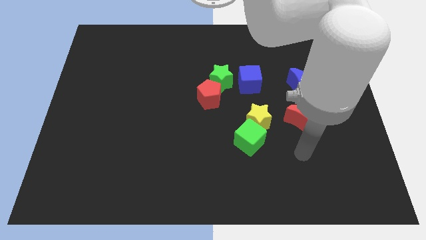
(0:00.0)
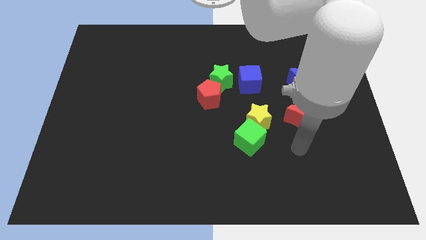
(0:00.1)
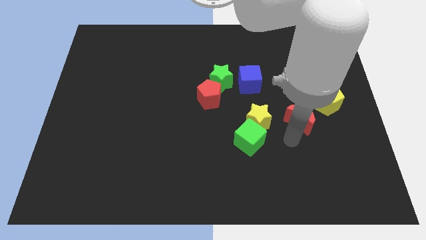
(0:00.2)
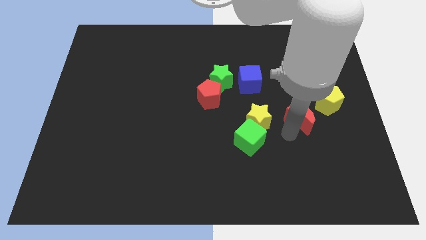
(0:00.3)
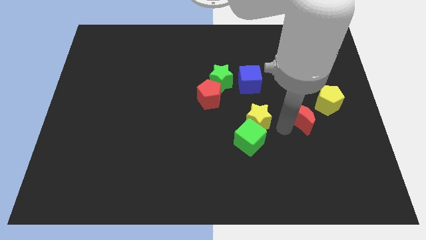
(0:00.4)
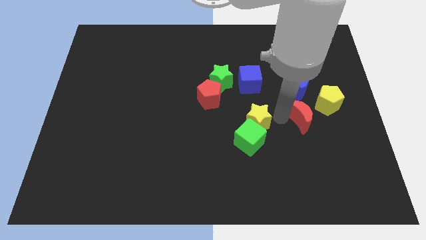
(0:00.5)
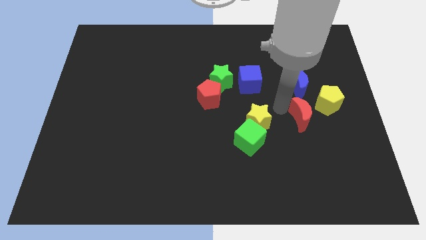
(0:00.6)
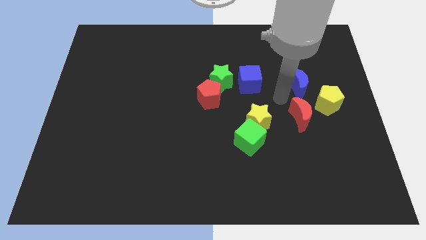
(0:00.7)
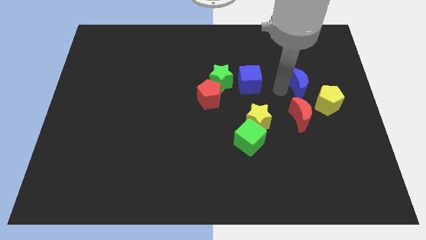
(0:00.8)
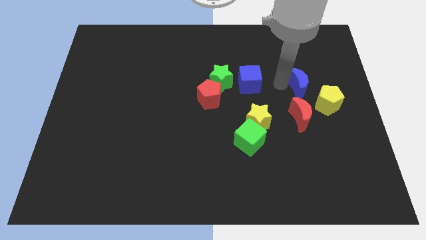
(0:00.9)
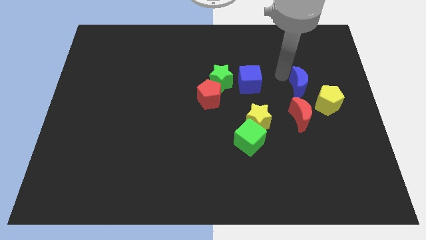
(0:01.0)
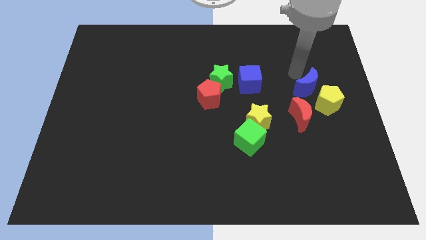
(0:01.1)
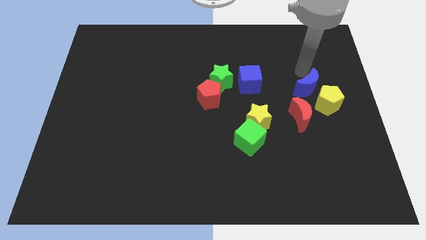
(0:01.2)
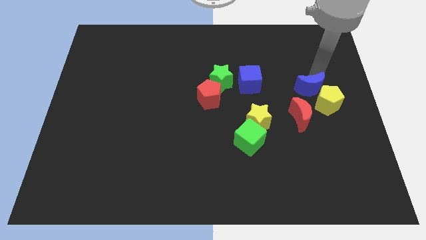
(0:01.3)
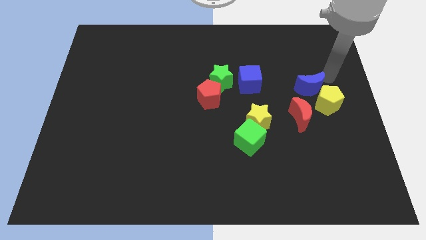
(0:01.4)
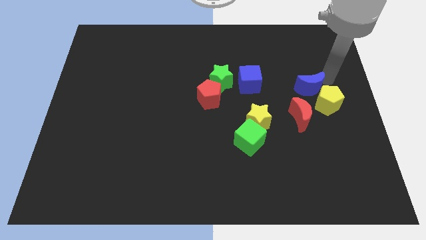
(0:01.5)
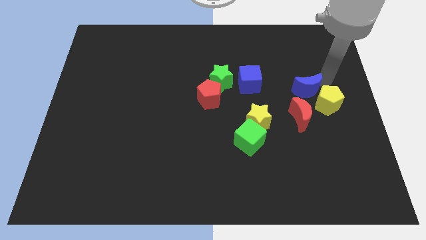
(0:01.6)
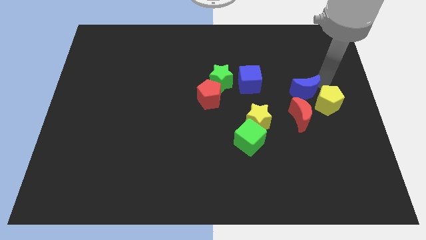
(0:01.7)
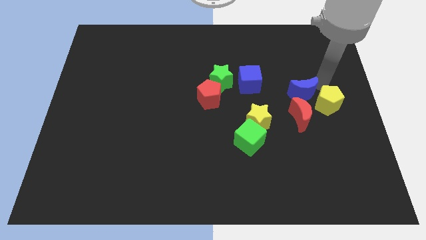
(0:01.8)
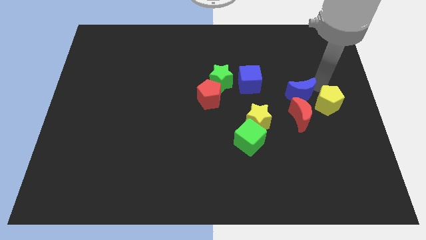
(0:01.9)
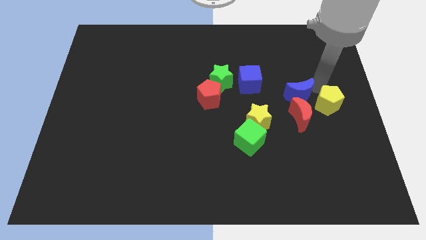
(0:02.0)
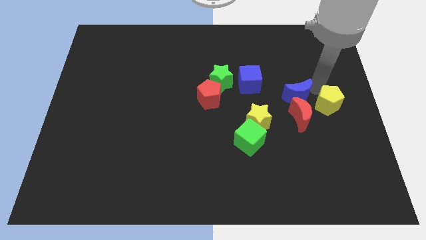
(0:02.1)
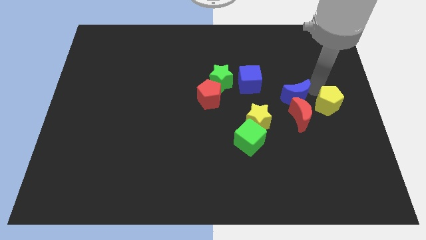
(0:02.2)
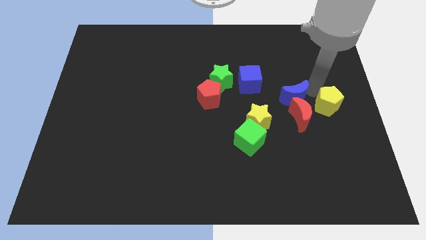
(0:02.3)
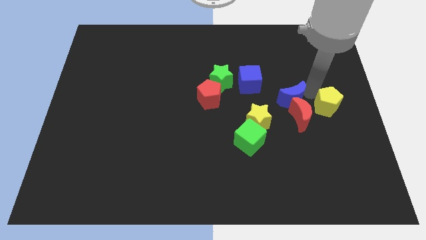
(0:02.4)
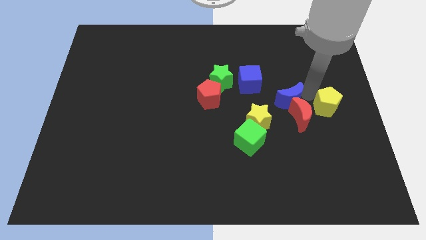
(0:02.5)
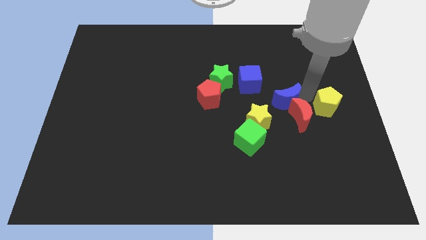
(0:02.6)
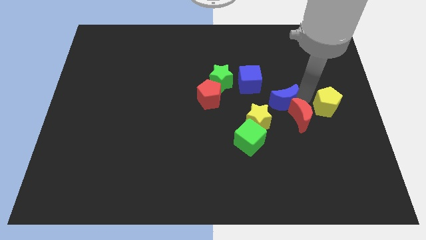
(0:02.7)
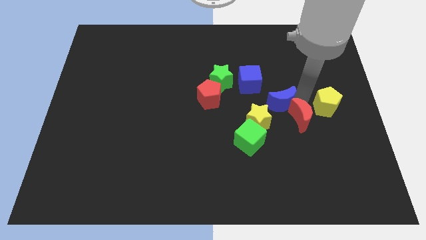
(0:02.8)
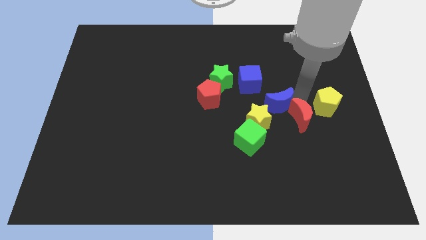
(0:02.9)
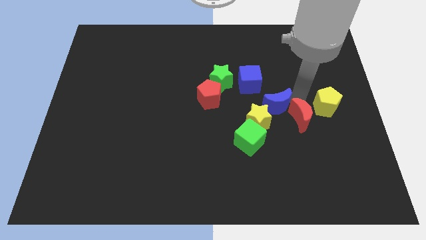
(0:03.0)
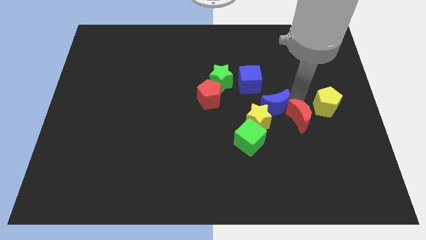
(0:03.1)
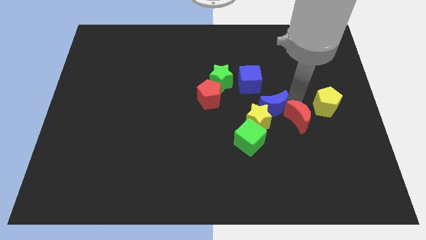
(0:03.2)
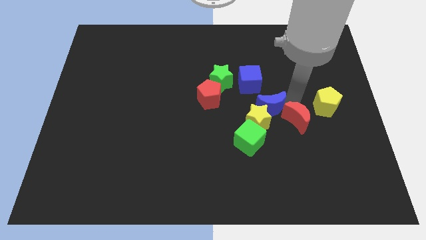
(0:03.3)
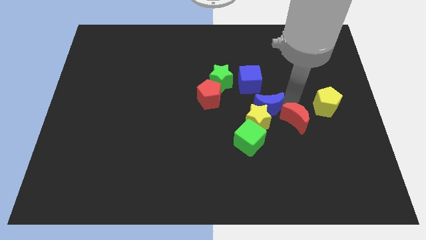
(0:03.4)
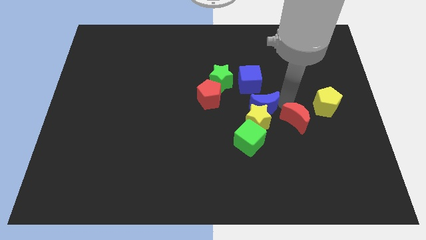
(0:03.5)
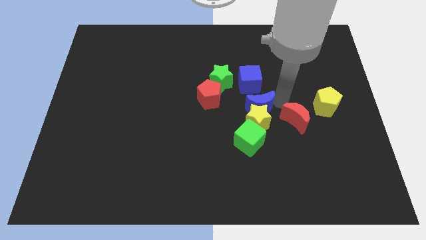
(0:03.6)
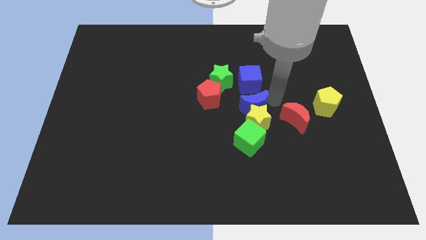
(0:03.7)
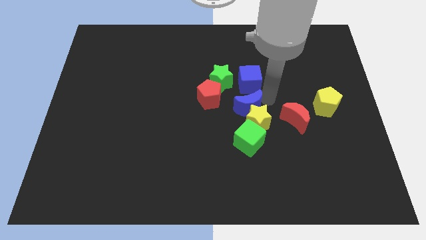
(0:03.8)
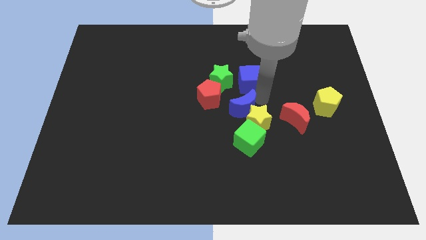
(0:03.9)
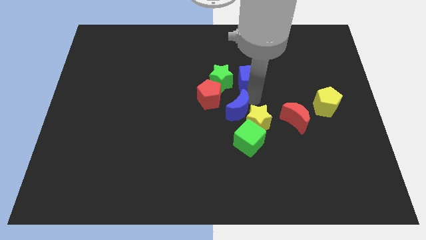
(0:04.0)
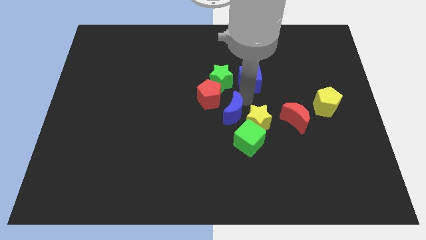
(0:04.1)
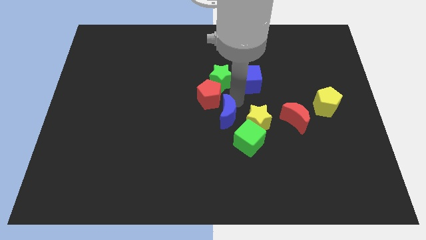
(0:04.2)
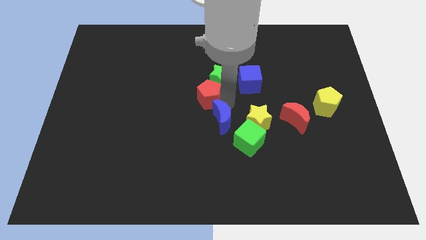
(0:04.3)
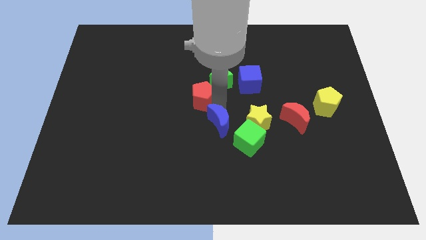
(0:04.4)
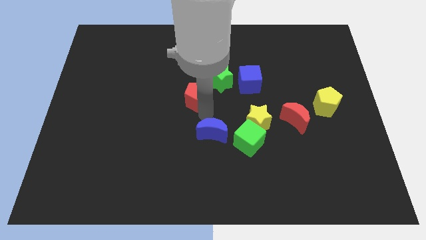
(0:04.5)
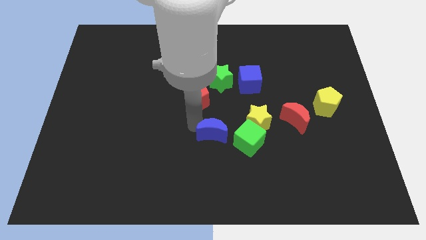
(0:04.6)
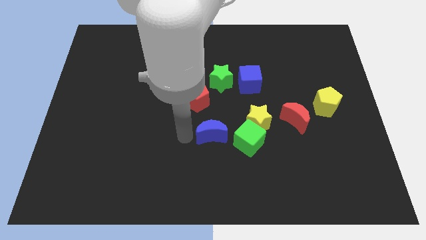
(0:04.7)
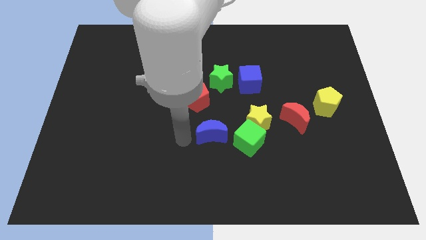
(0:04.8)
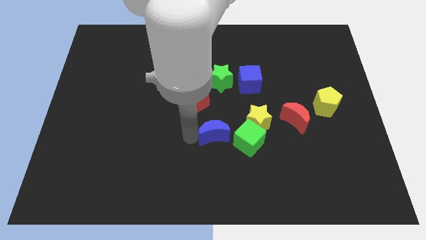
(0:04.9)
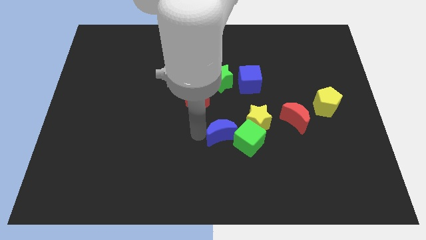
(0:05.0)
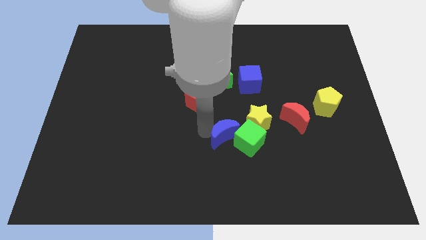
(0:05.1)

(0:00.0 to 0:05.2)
move the blue moon next to the green cube

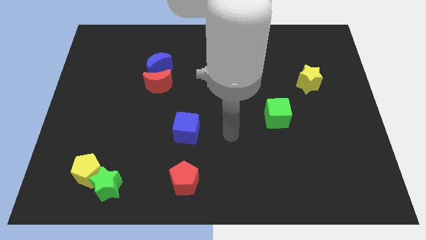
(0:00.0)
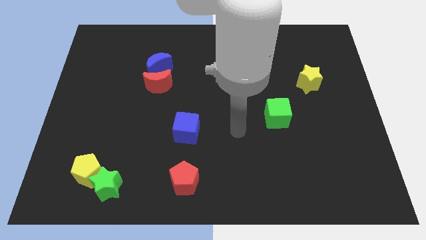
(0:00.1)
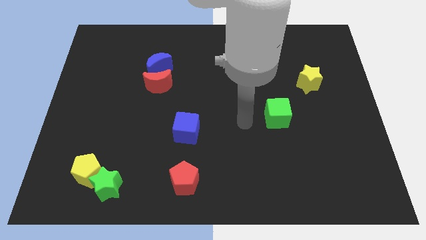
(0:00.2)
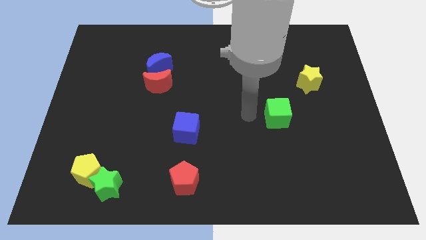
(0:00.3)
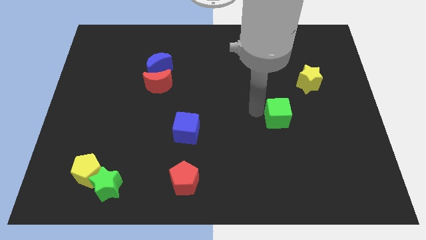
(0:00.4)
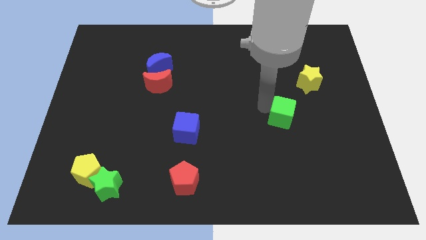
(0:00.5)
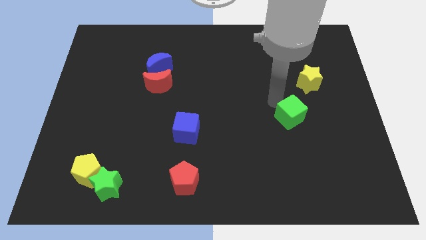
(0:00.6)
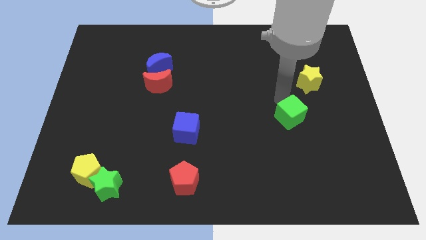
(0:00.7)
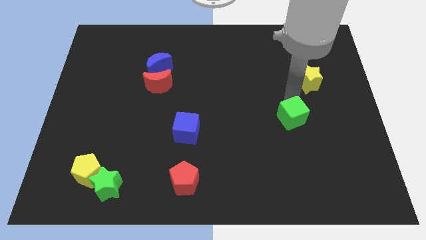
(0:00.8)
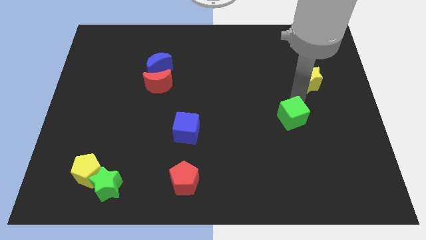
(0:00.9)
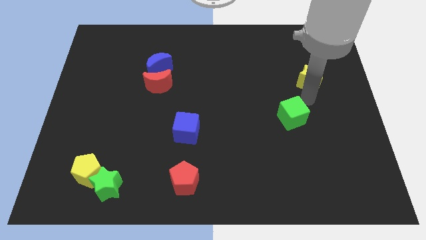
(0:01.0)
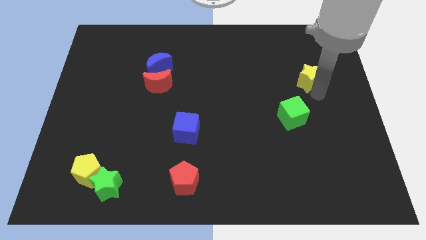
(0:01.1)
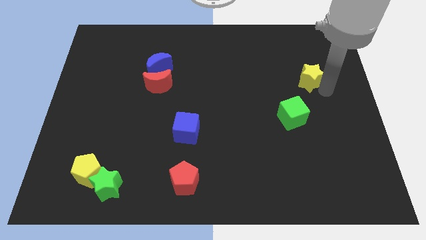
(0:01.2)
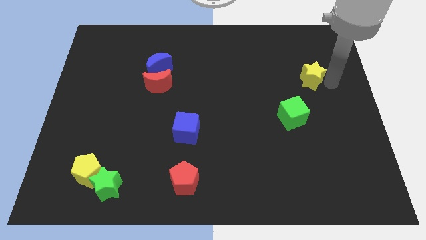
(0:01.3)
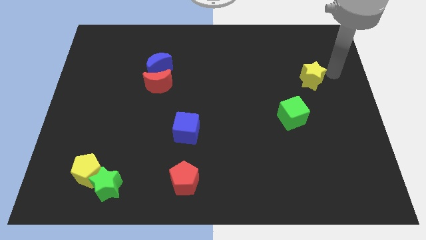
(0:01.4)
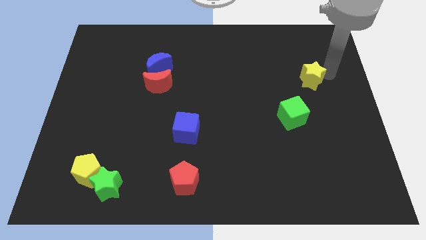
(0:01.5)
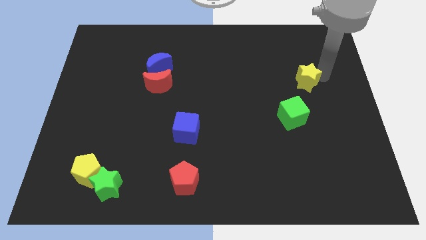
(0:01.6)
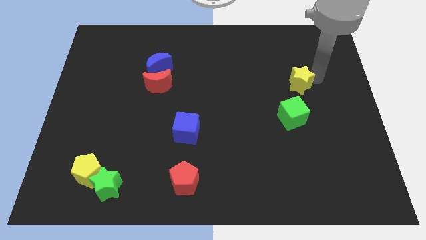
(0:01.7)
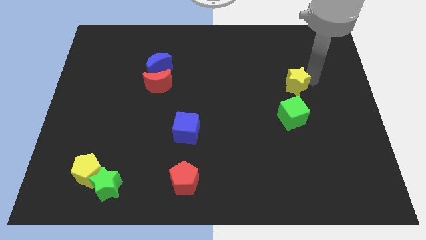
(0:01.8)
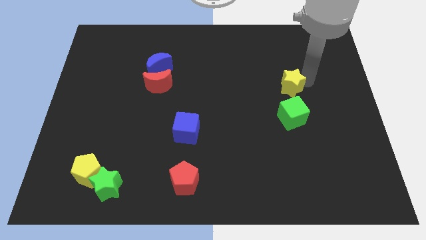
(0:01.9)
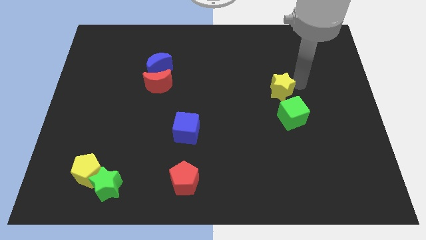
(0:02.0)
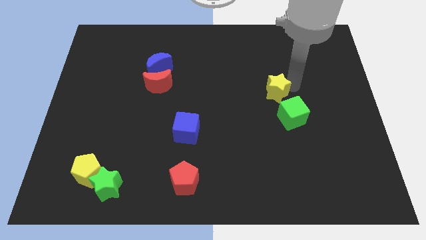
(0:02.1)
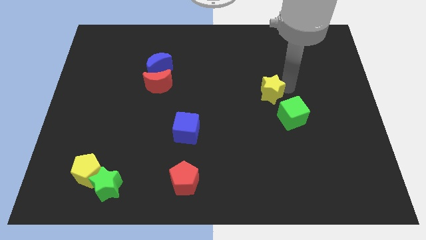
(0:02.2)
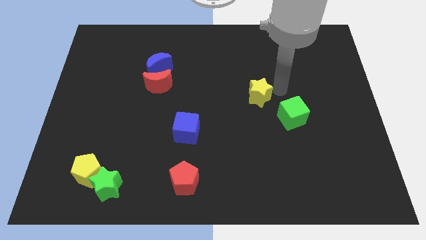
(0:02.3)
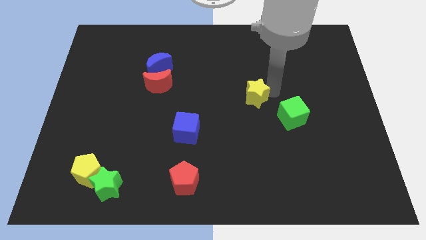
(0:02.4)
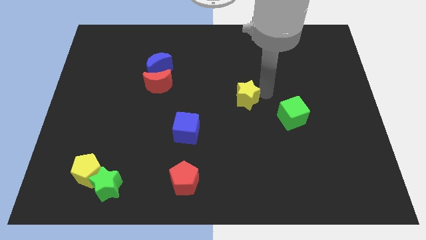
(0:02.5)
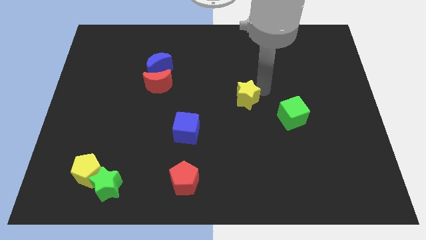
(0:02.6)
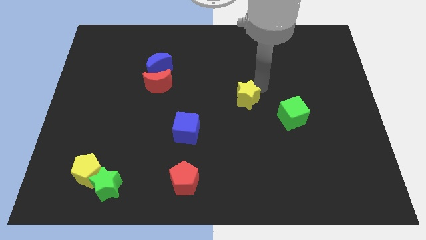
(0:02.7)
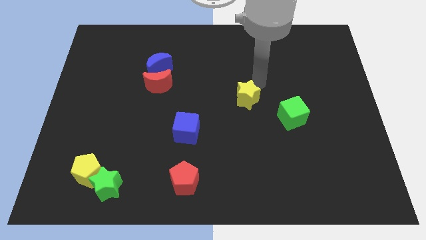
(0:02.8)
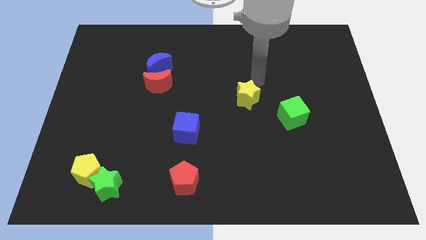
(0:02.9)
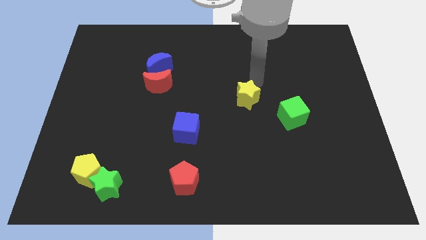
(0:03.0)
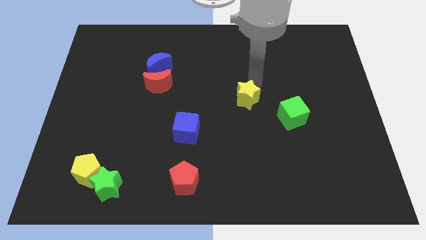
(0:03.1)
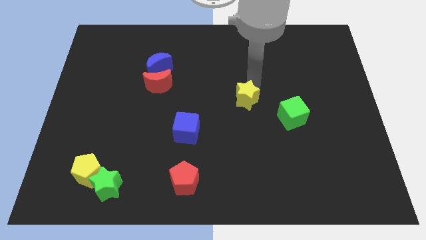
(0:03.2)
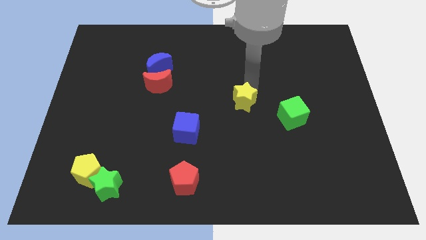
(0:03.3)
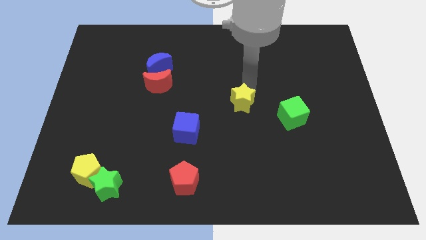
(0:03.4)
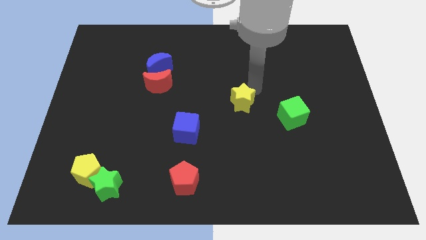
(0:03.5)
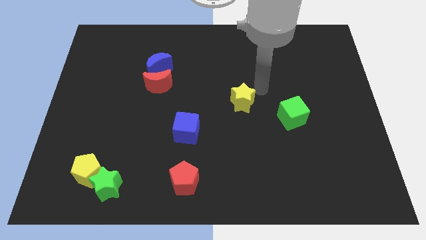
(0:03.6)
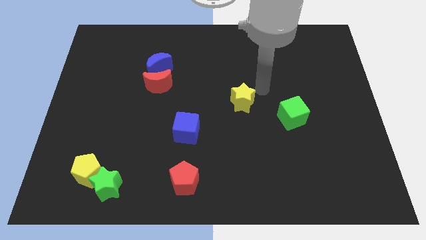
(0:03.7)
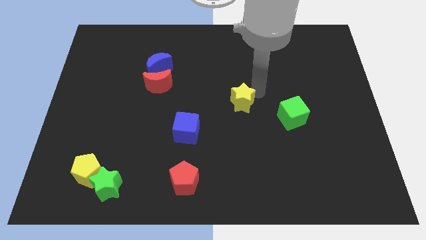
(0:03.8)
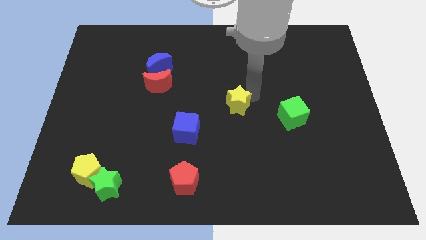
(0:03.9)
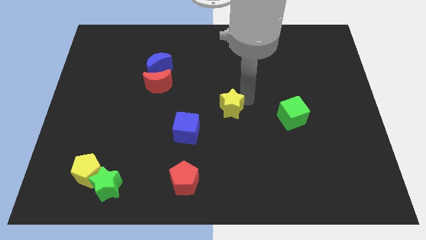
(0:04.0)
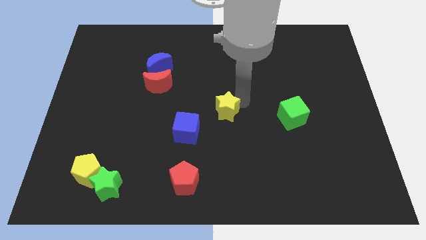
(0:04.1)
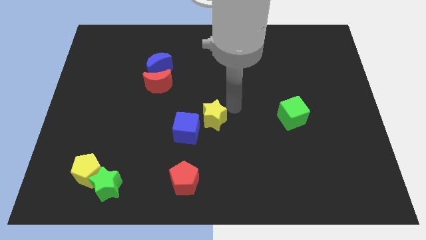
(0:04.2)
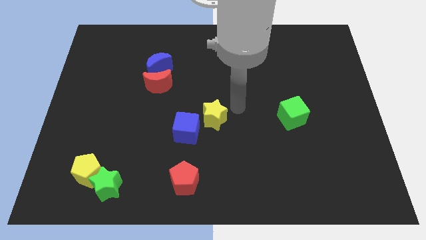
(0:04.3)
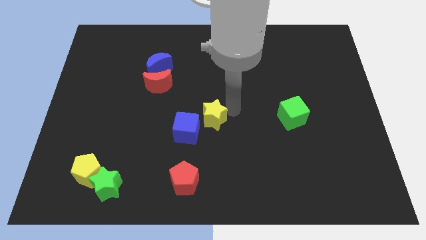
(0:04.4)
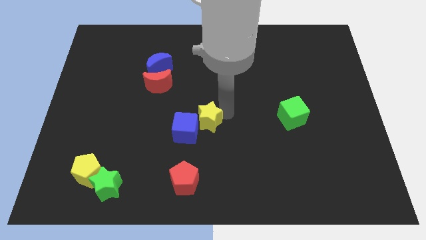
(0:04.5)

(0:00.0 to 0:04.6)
push the yellow star next to the blue cube
